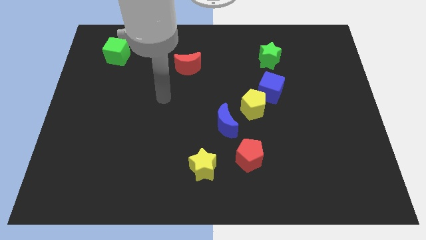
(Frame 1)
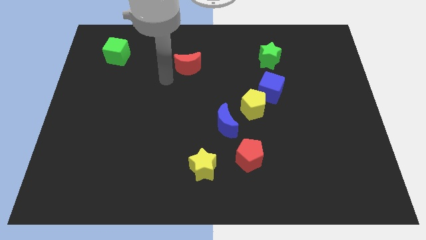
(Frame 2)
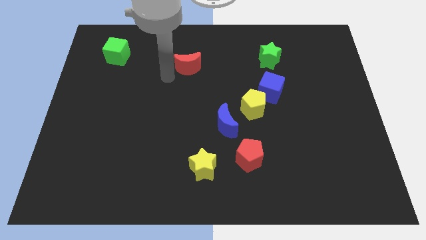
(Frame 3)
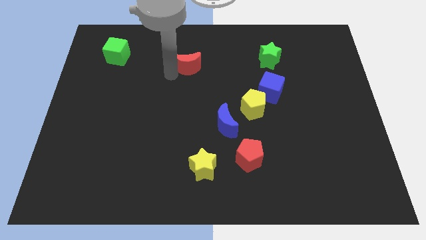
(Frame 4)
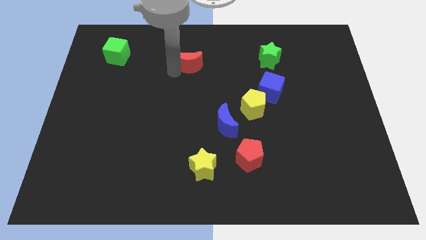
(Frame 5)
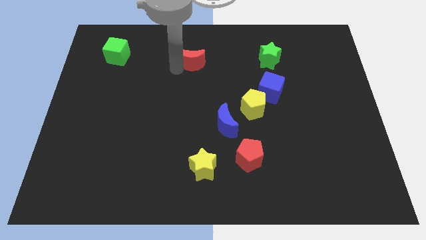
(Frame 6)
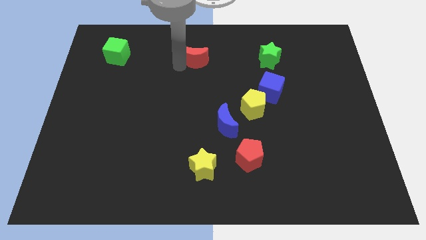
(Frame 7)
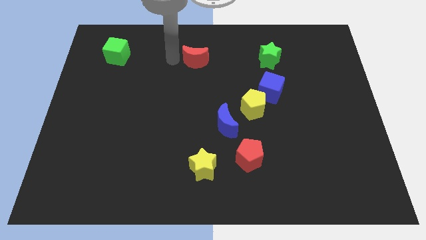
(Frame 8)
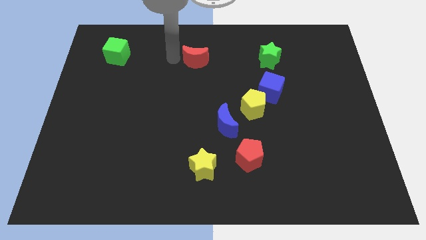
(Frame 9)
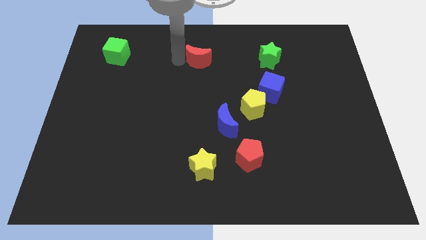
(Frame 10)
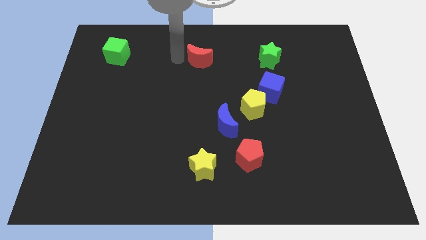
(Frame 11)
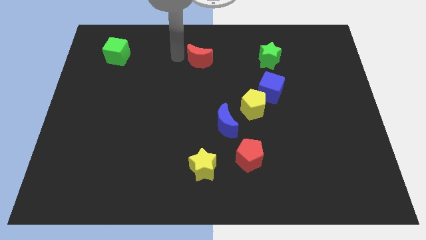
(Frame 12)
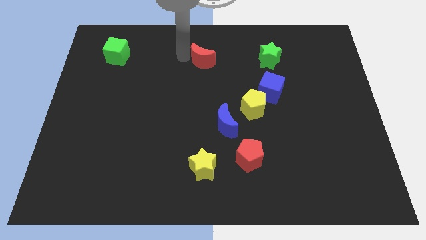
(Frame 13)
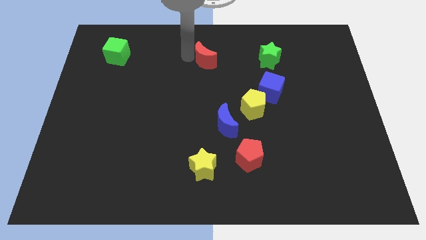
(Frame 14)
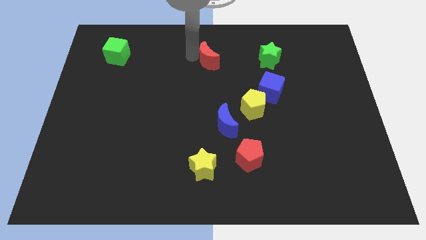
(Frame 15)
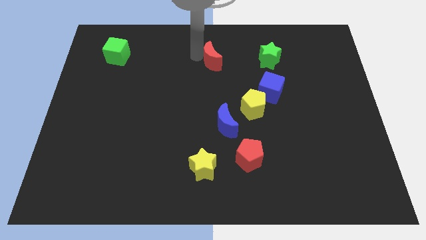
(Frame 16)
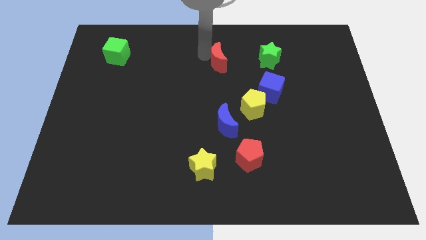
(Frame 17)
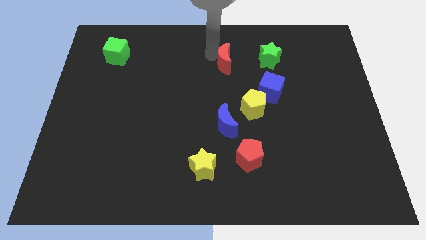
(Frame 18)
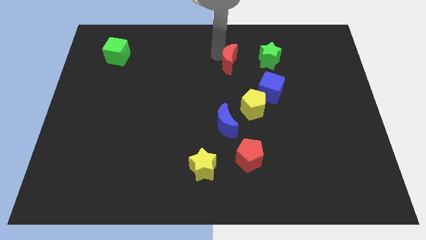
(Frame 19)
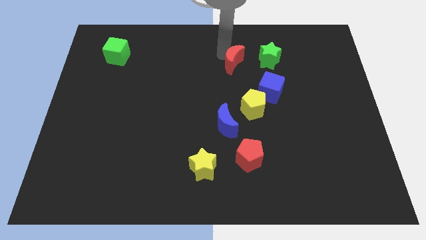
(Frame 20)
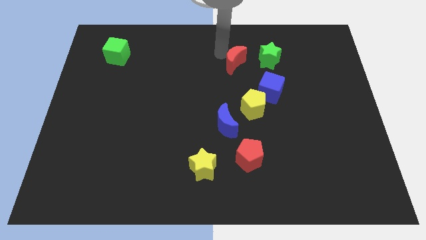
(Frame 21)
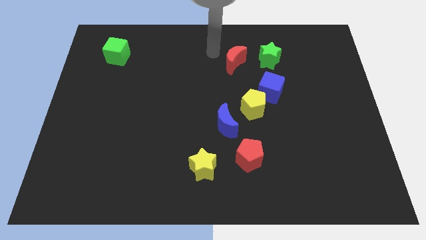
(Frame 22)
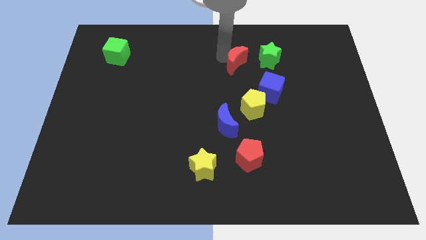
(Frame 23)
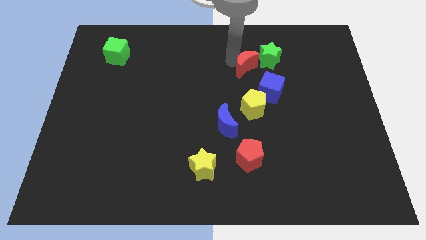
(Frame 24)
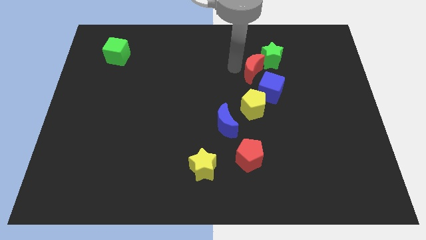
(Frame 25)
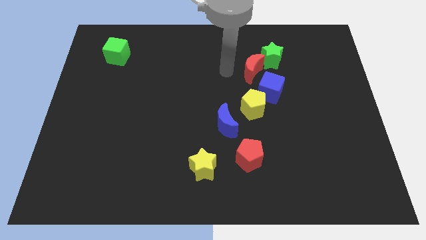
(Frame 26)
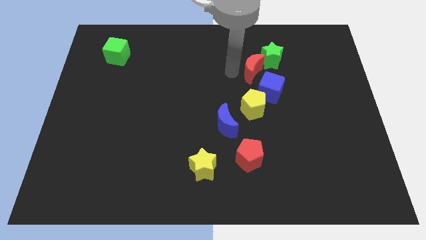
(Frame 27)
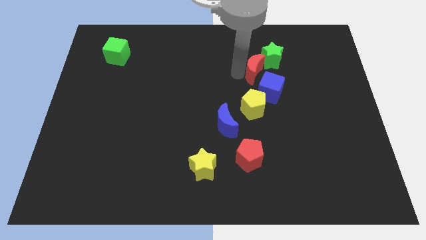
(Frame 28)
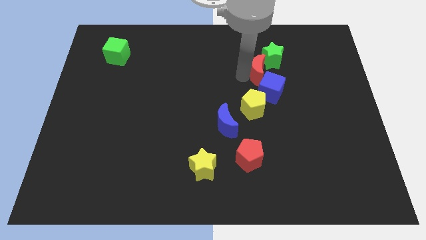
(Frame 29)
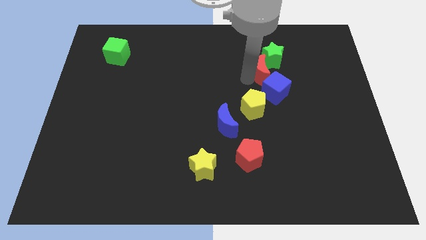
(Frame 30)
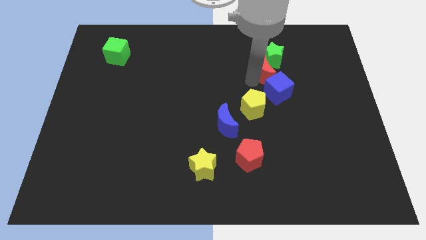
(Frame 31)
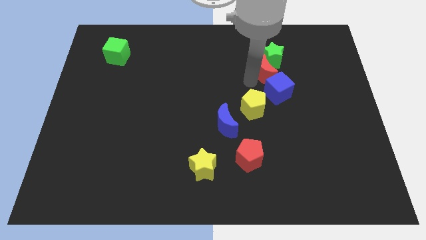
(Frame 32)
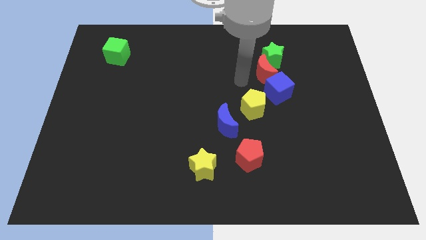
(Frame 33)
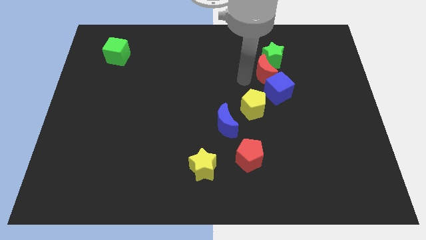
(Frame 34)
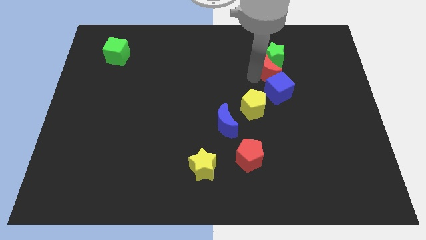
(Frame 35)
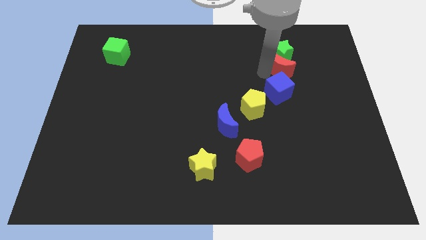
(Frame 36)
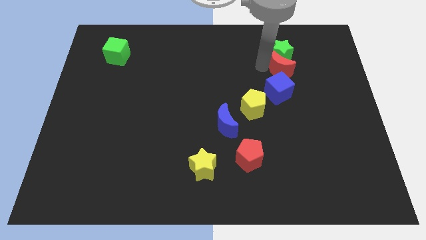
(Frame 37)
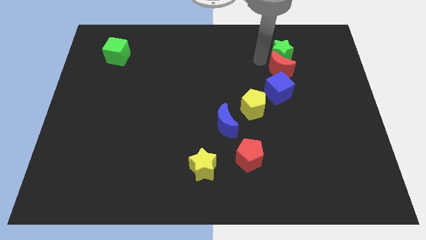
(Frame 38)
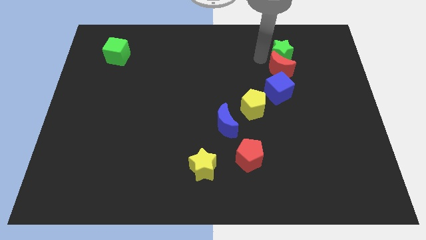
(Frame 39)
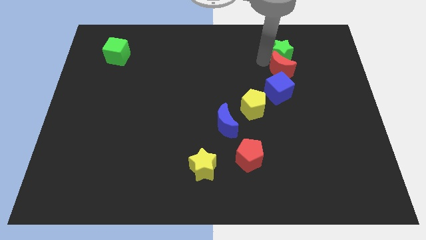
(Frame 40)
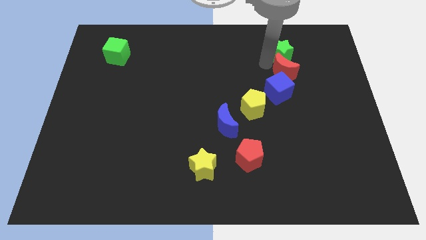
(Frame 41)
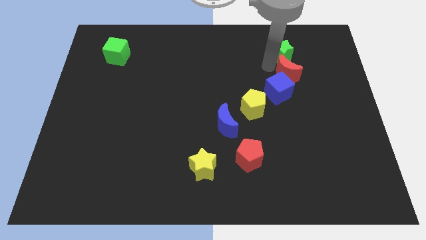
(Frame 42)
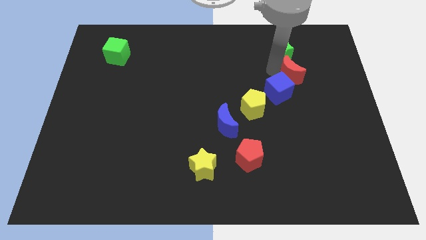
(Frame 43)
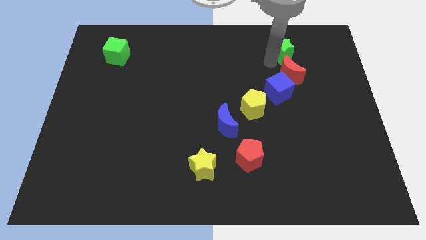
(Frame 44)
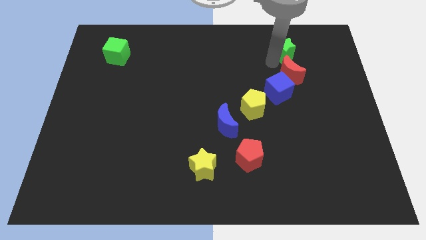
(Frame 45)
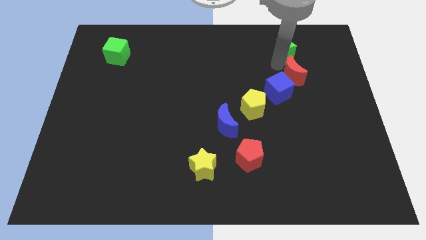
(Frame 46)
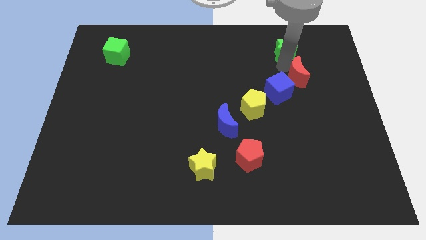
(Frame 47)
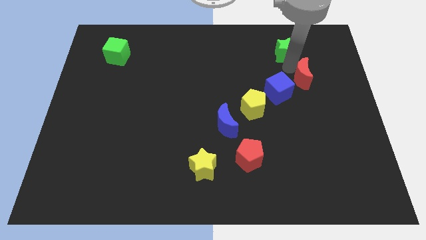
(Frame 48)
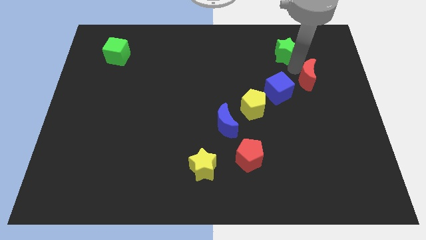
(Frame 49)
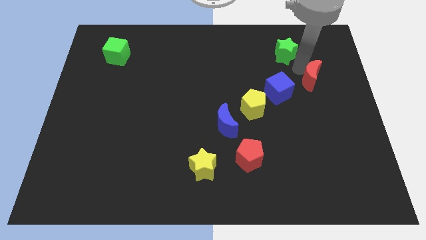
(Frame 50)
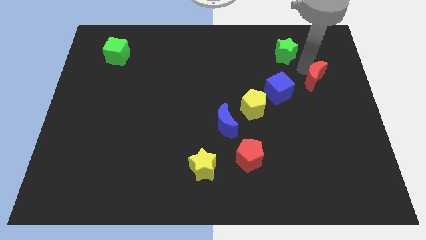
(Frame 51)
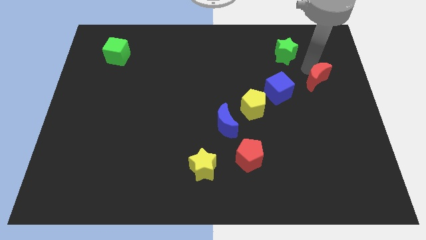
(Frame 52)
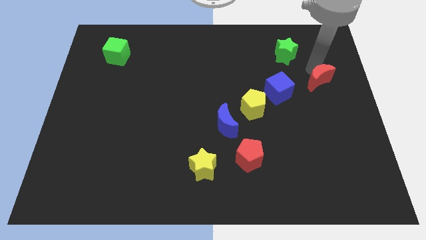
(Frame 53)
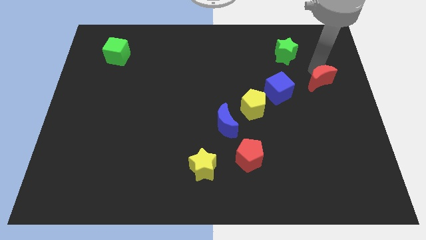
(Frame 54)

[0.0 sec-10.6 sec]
slide the red moon to the center right

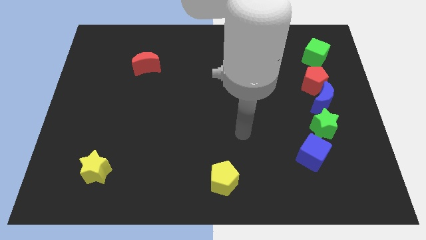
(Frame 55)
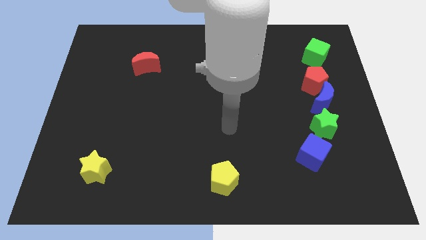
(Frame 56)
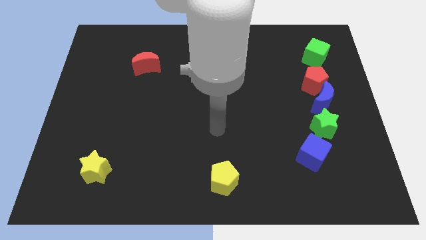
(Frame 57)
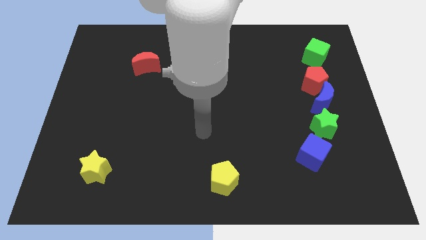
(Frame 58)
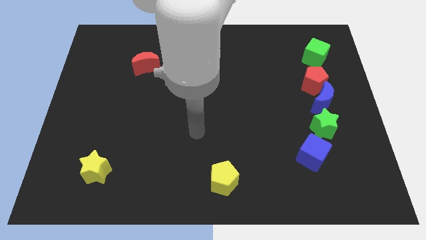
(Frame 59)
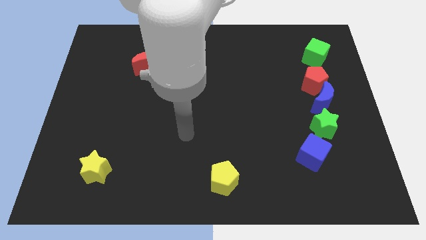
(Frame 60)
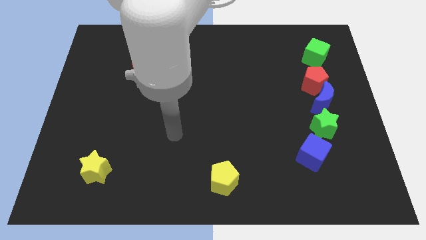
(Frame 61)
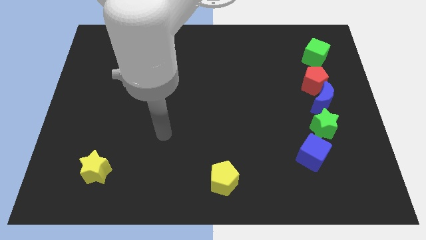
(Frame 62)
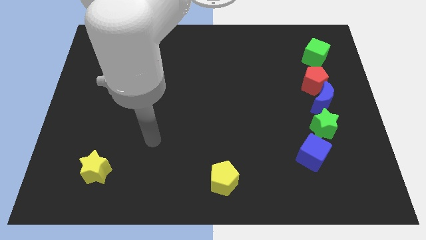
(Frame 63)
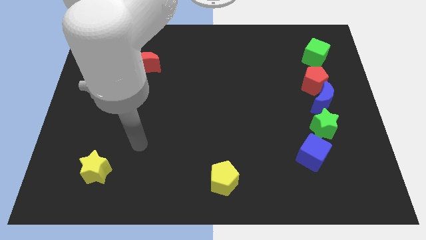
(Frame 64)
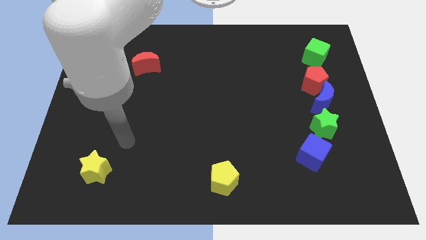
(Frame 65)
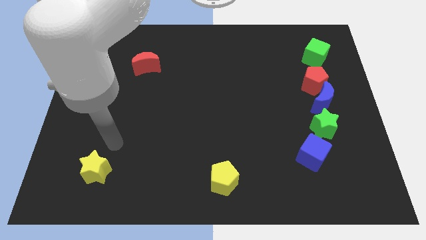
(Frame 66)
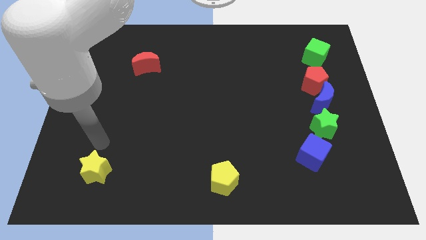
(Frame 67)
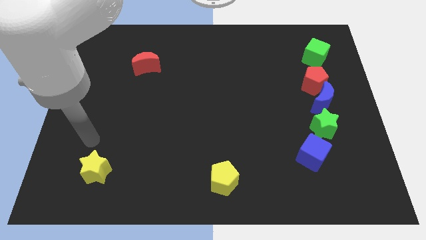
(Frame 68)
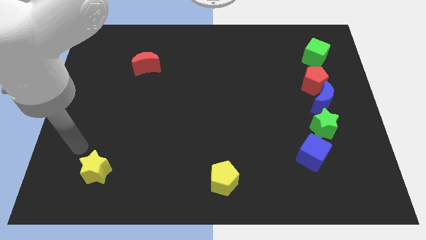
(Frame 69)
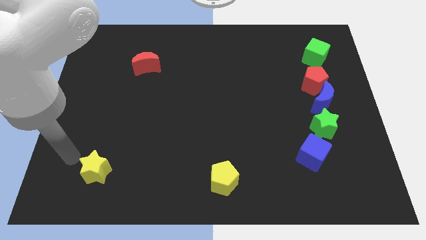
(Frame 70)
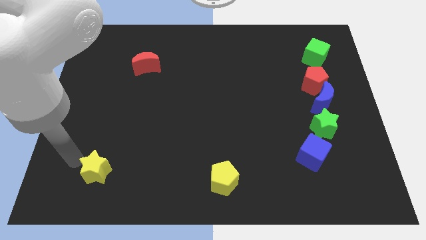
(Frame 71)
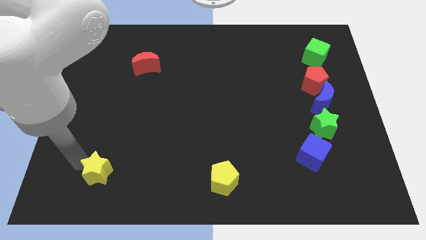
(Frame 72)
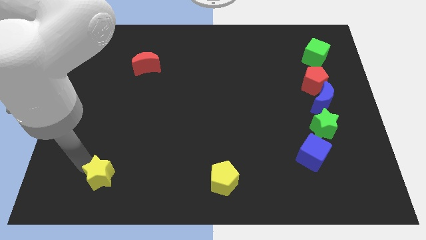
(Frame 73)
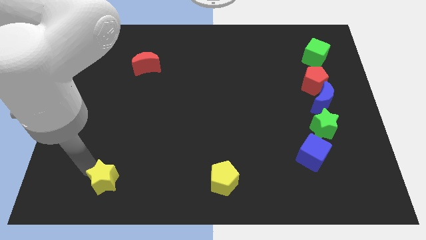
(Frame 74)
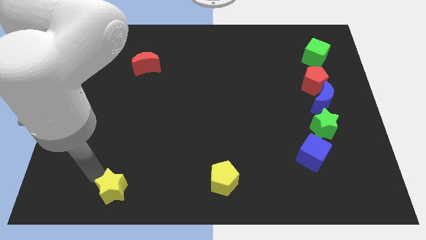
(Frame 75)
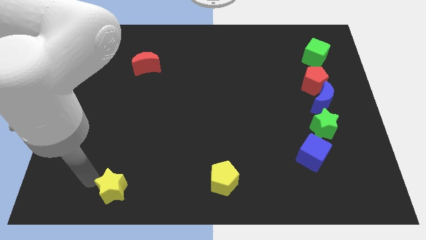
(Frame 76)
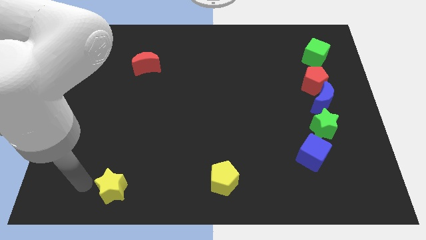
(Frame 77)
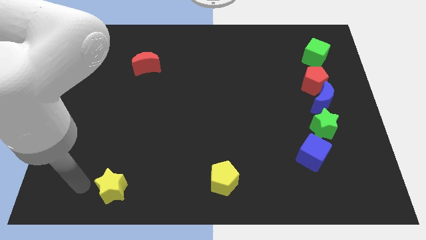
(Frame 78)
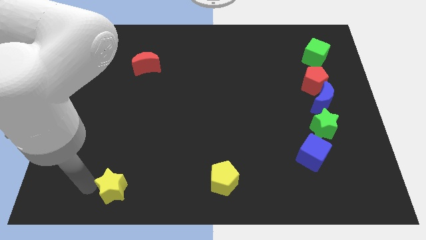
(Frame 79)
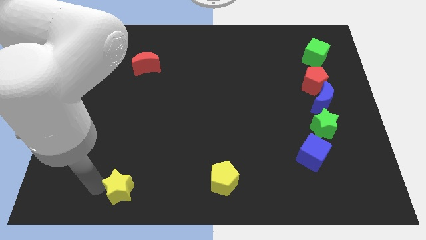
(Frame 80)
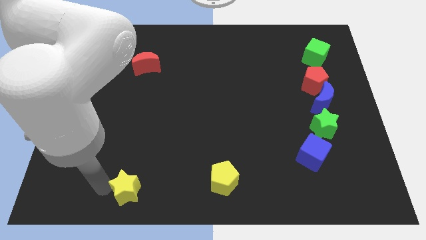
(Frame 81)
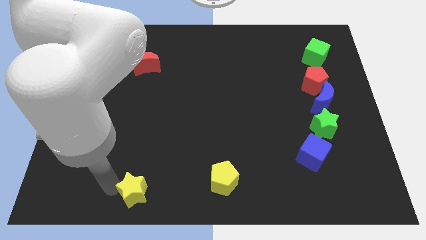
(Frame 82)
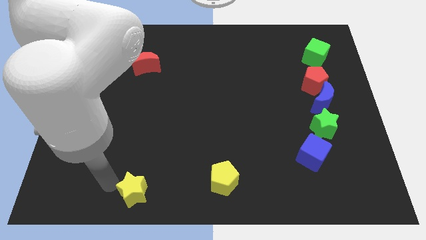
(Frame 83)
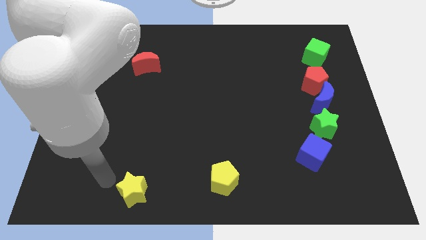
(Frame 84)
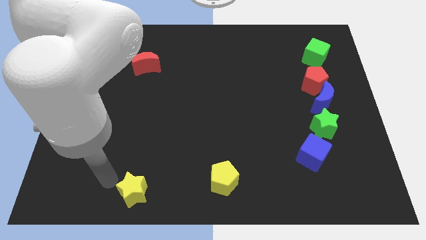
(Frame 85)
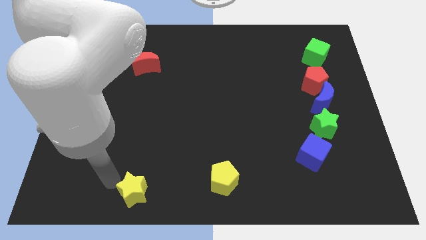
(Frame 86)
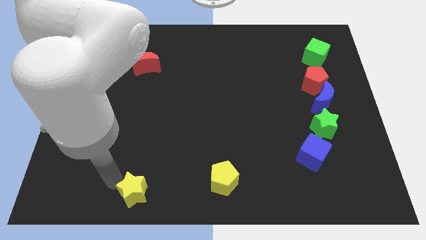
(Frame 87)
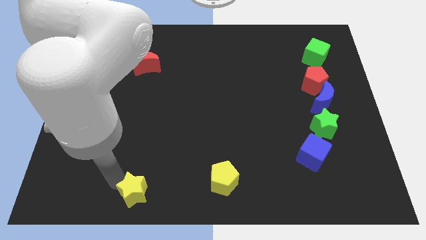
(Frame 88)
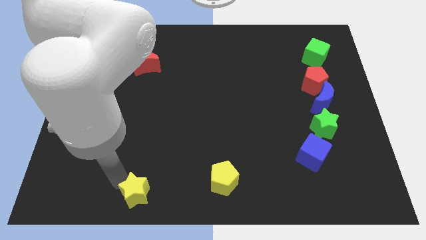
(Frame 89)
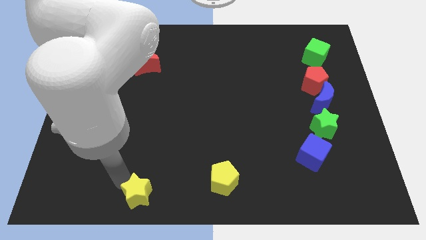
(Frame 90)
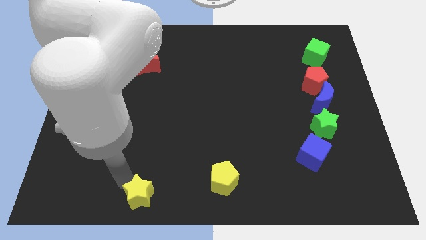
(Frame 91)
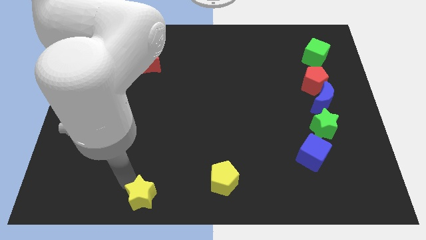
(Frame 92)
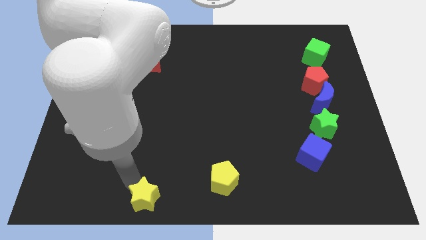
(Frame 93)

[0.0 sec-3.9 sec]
move the yellow star to the bottom side
